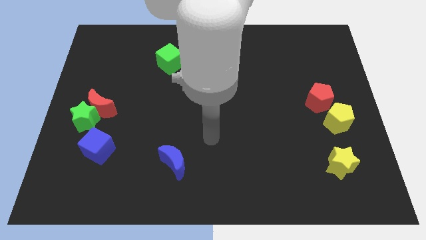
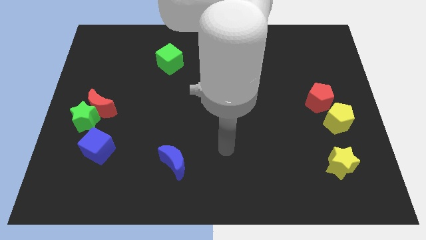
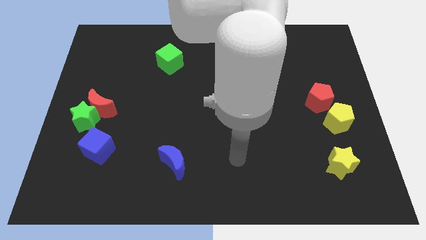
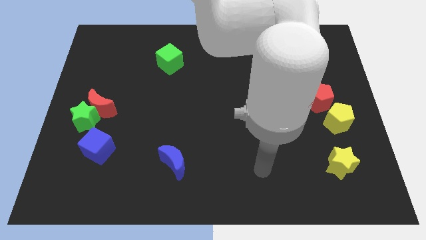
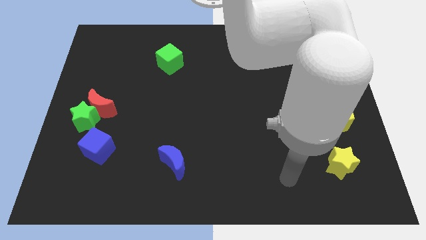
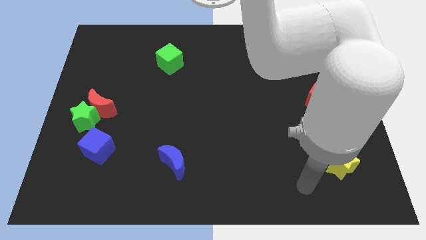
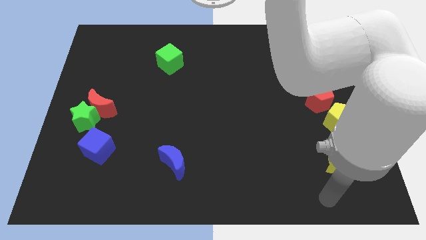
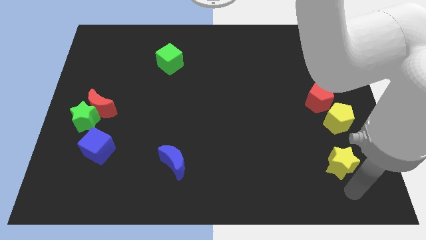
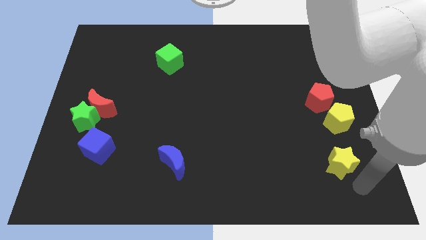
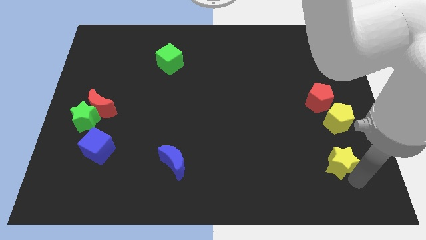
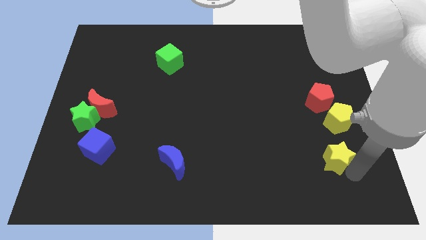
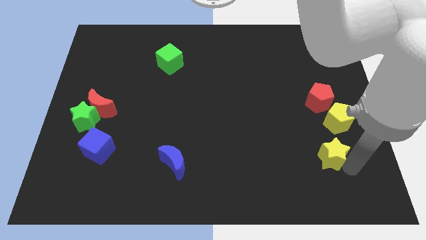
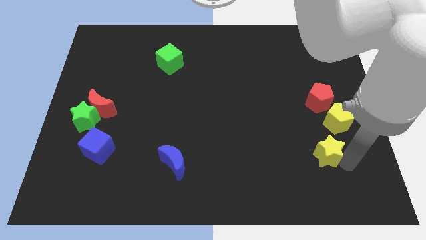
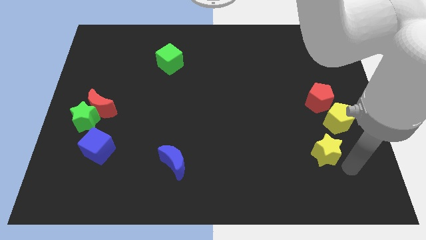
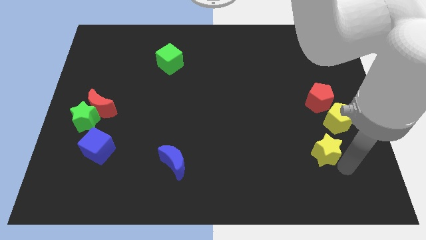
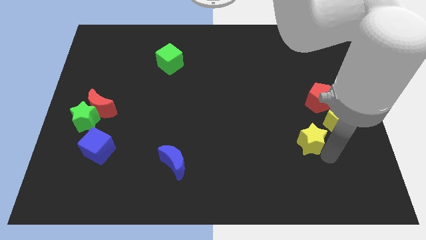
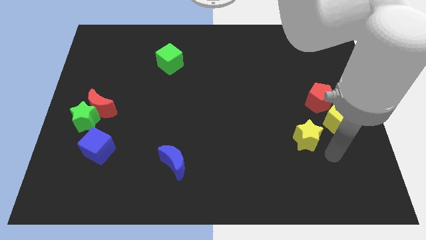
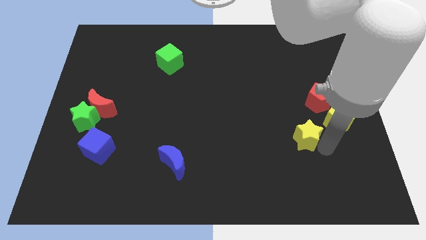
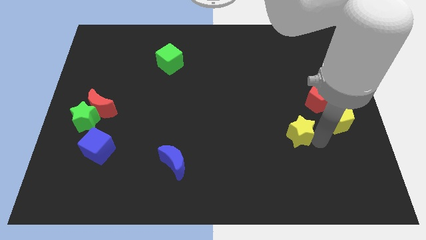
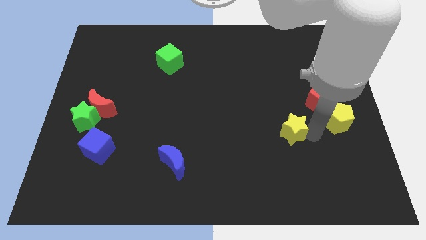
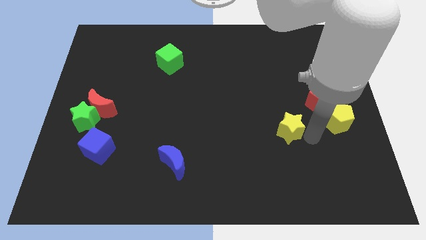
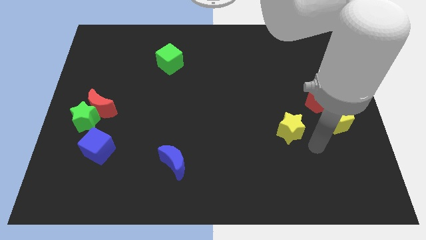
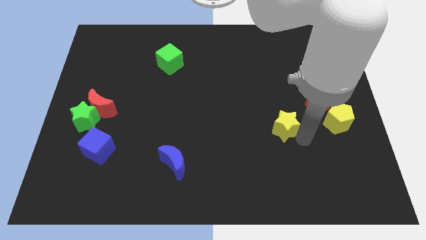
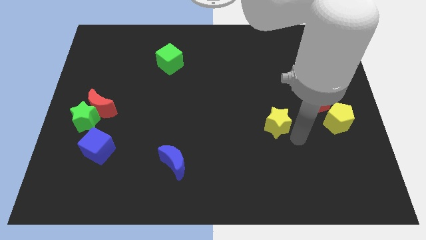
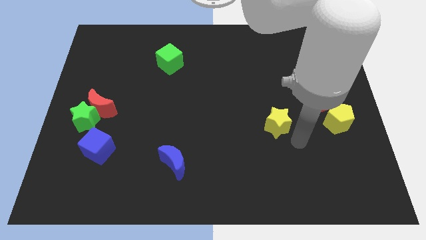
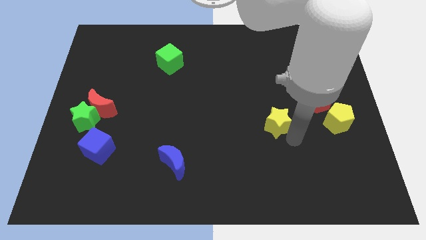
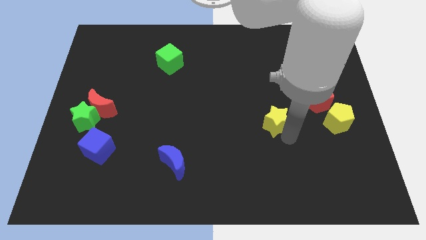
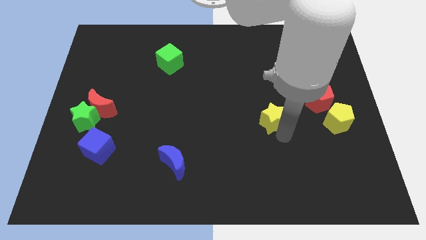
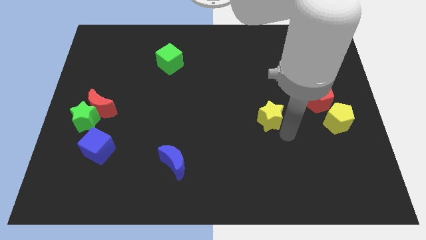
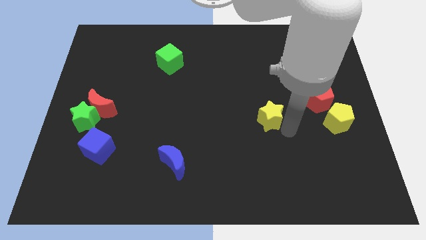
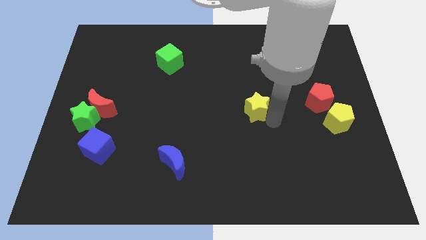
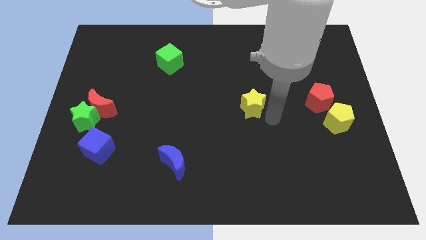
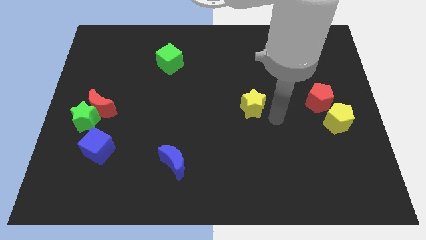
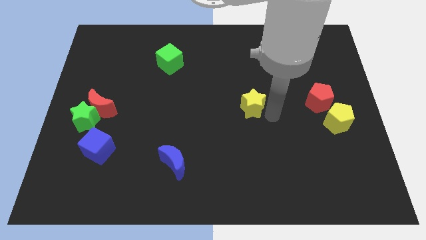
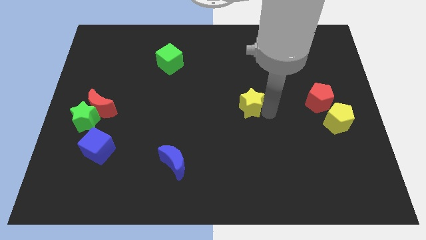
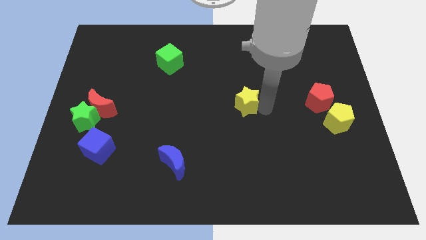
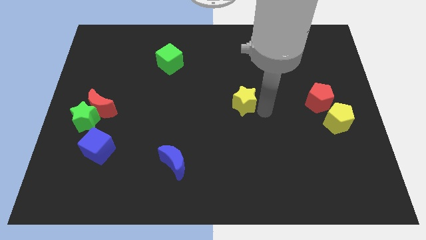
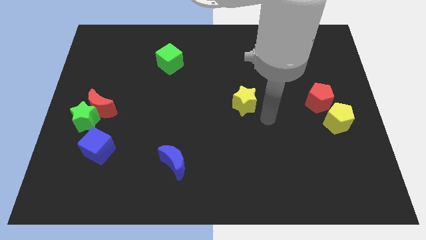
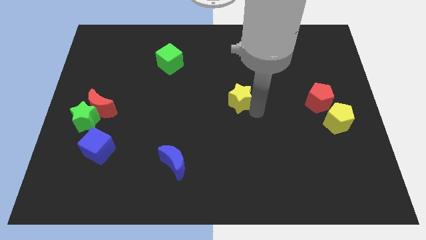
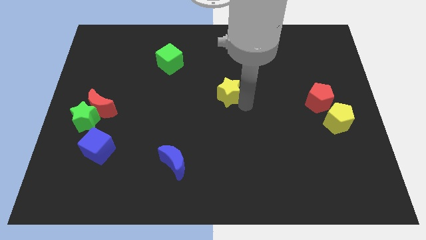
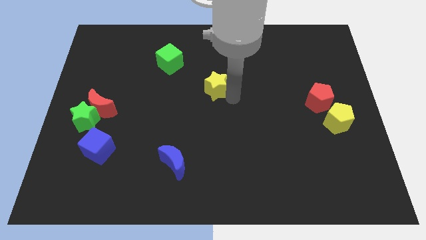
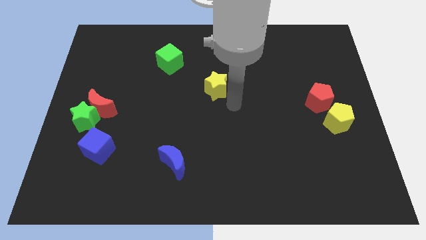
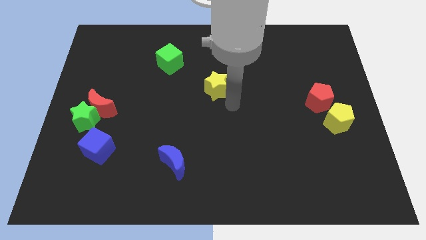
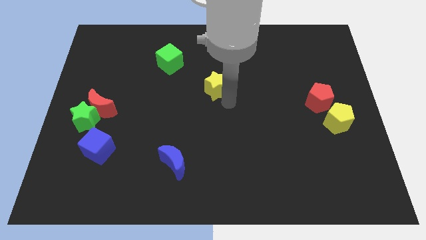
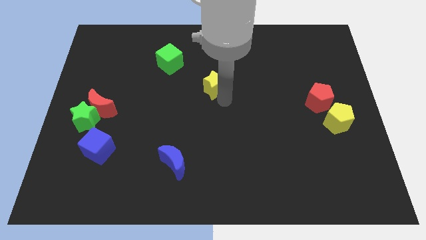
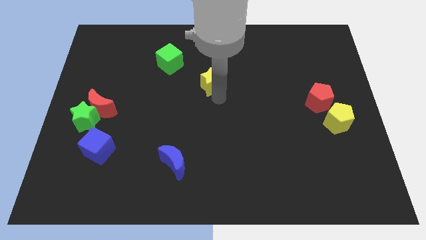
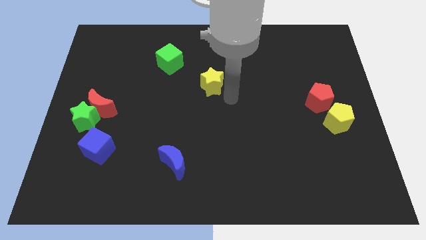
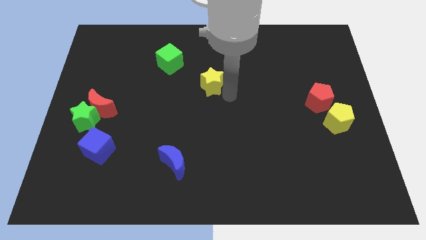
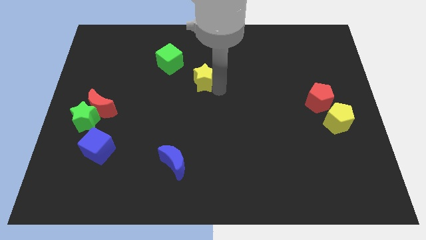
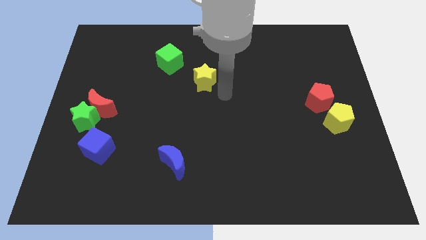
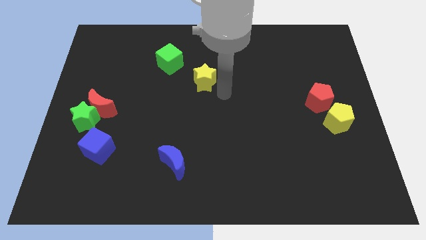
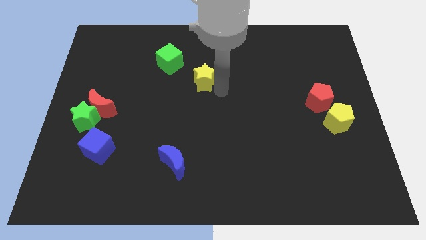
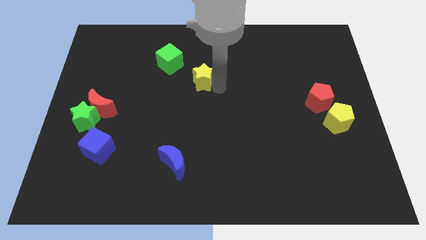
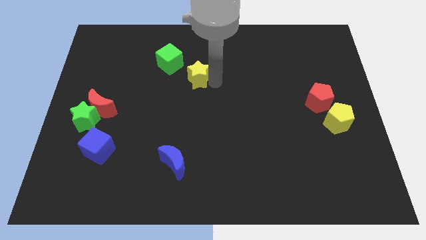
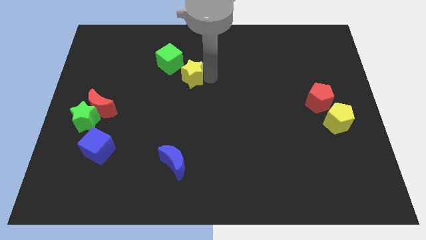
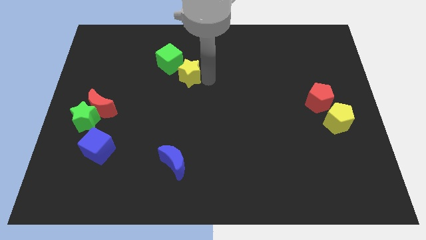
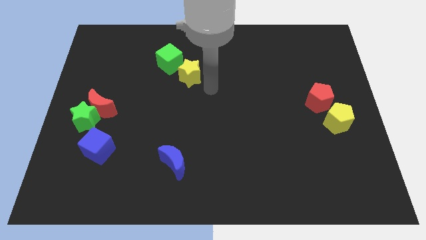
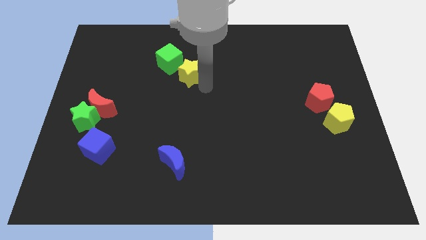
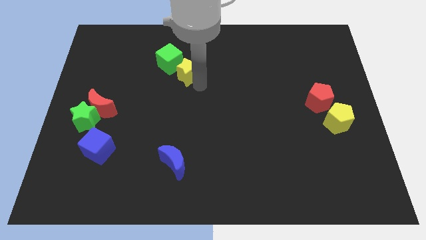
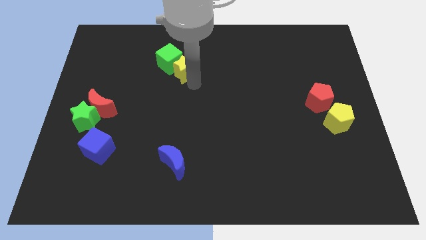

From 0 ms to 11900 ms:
slide the yellow star to the green cube
